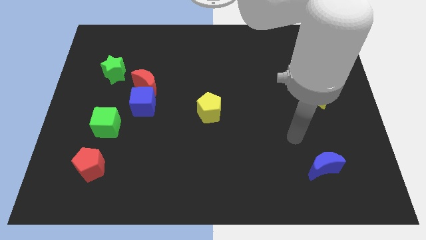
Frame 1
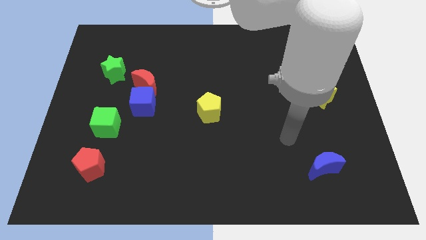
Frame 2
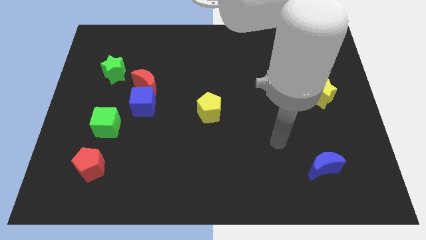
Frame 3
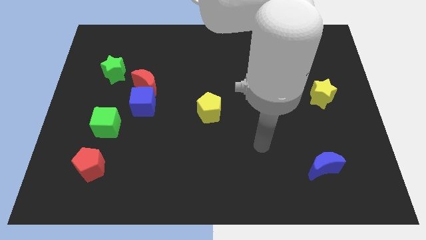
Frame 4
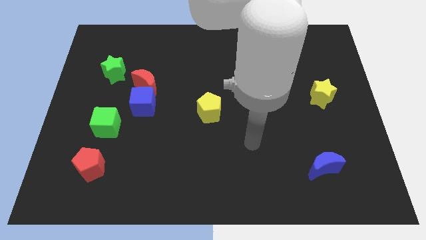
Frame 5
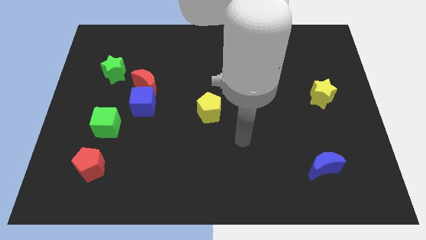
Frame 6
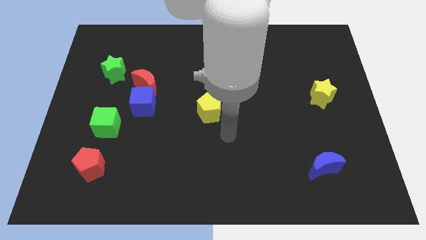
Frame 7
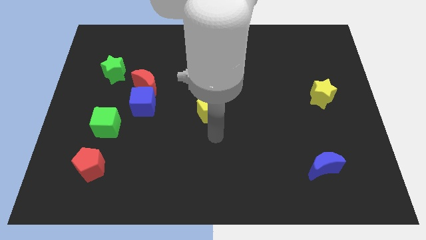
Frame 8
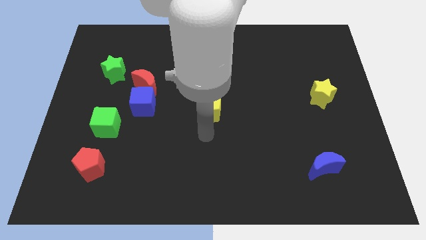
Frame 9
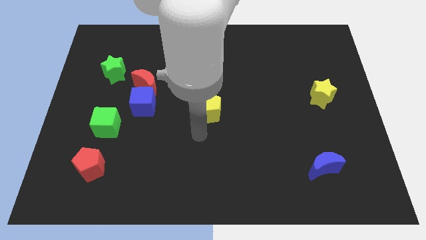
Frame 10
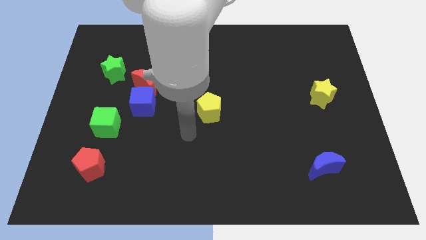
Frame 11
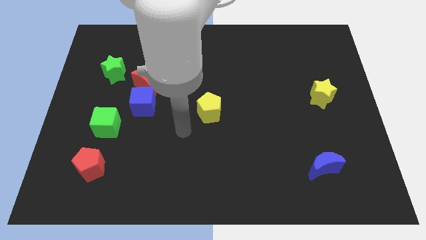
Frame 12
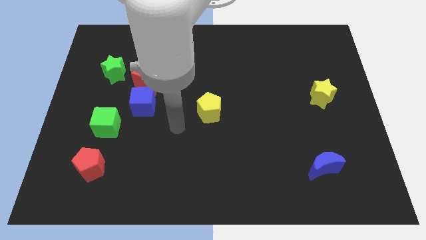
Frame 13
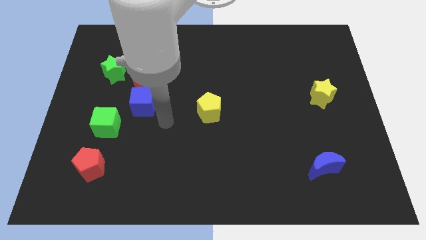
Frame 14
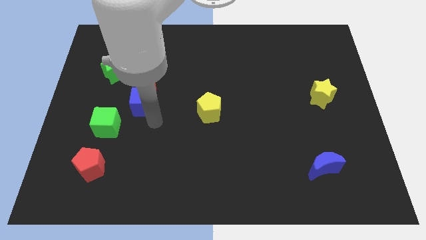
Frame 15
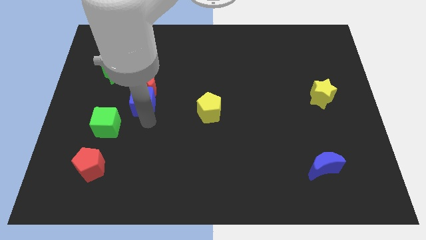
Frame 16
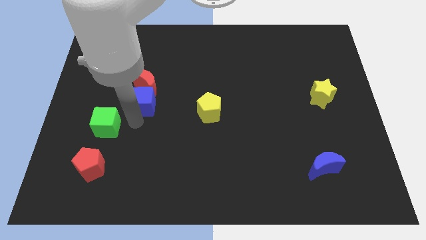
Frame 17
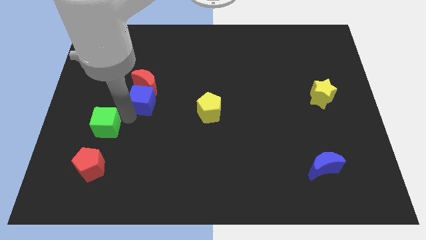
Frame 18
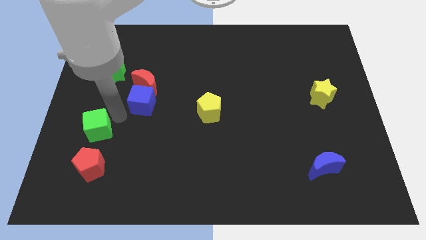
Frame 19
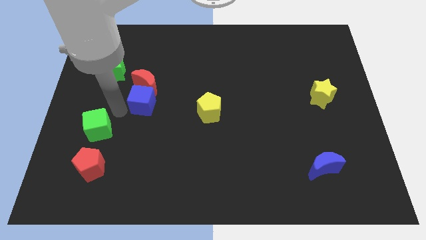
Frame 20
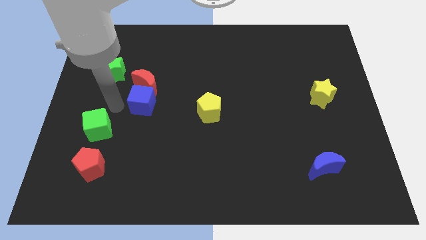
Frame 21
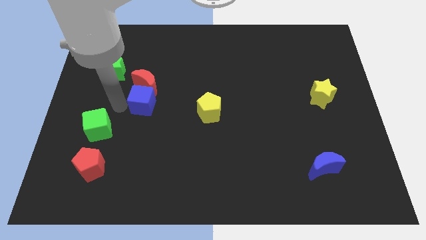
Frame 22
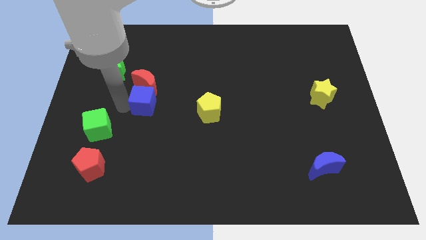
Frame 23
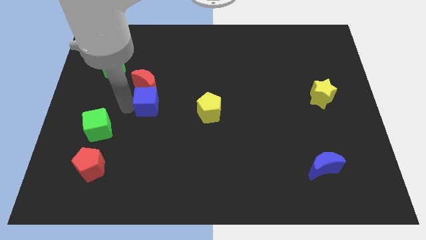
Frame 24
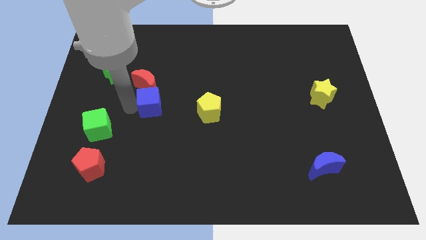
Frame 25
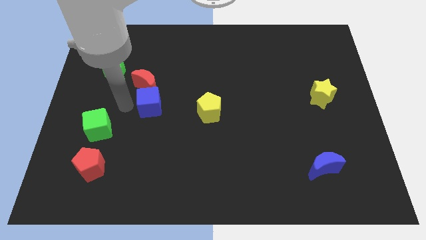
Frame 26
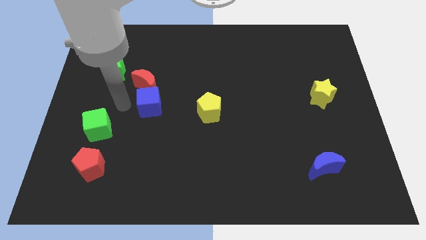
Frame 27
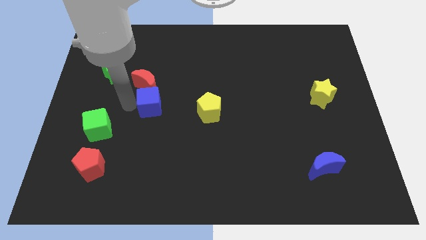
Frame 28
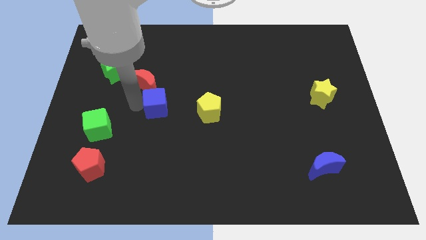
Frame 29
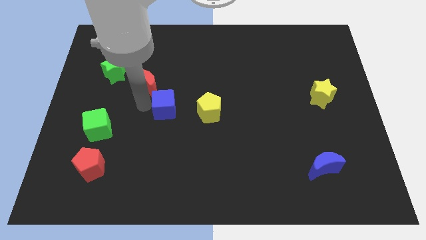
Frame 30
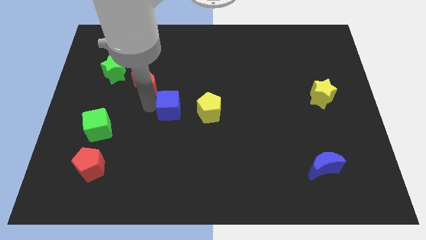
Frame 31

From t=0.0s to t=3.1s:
move the blue cube away from the red moon and green cube

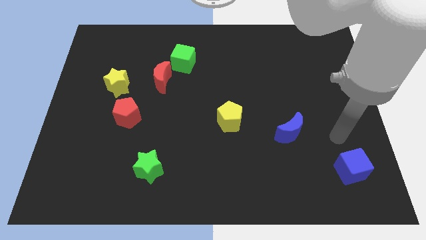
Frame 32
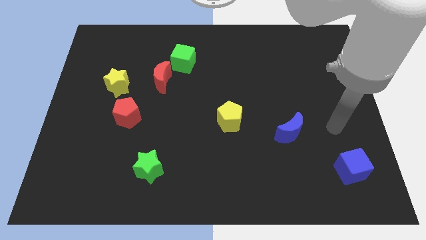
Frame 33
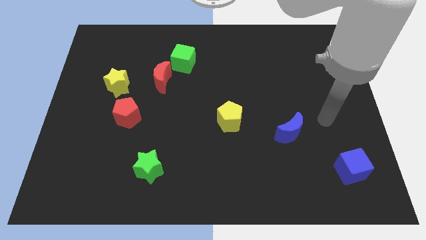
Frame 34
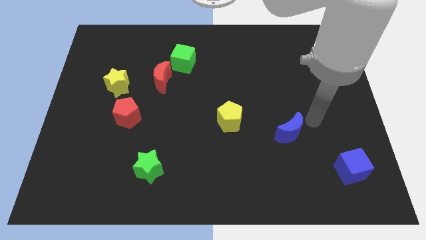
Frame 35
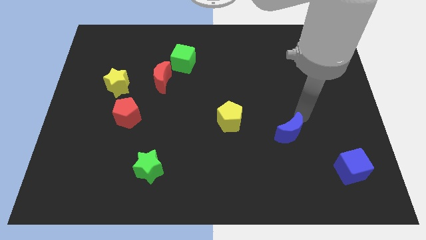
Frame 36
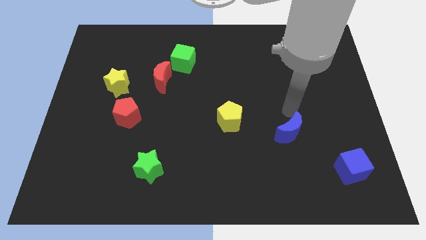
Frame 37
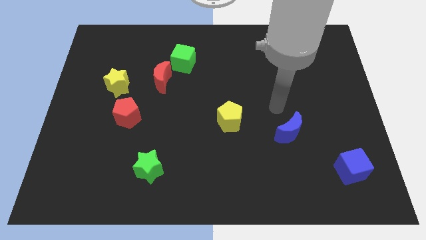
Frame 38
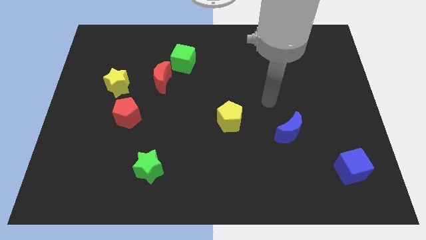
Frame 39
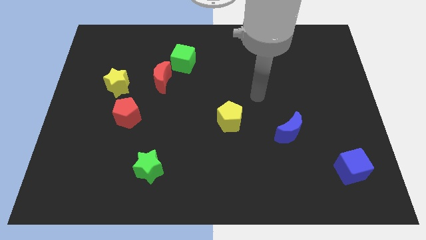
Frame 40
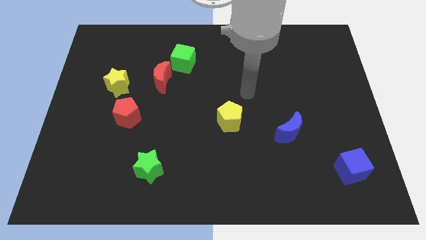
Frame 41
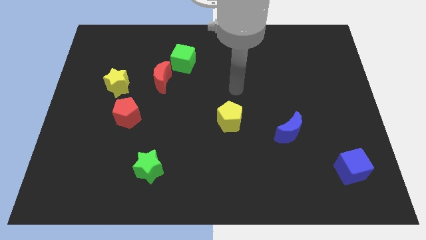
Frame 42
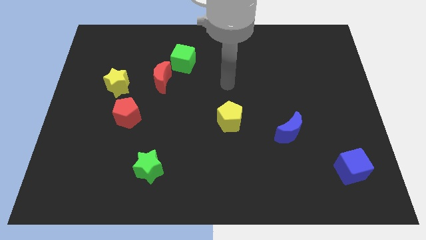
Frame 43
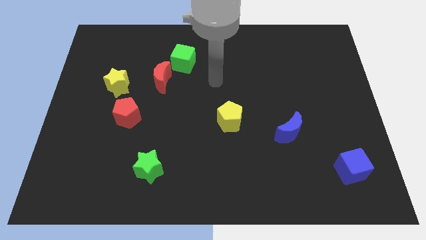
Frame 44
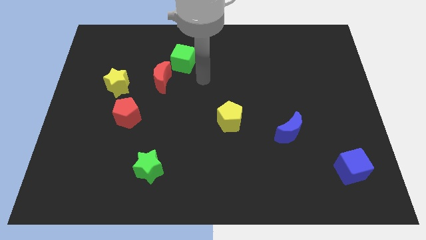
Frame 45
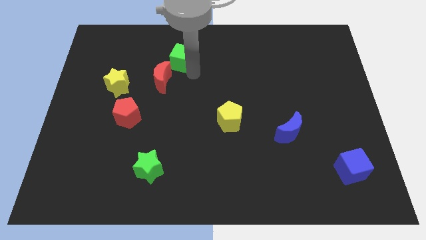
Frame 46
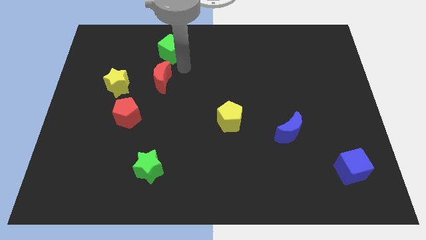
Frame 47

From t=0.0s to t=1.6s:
separate the red moon from the green cube

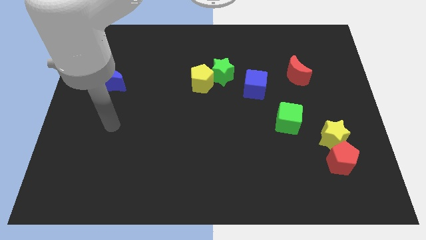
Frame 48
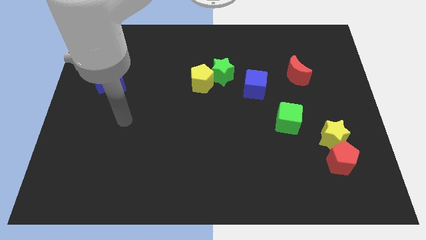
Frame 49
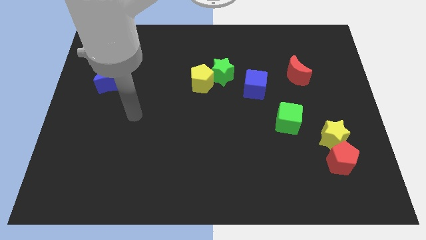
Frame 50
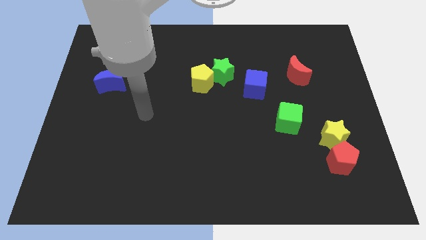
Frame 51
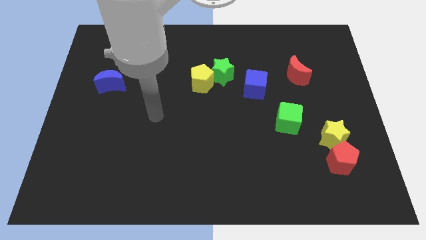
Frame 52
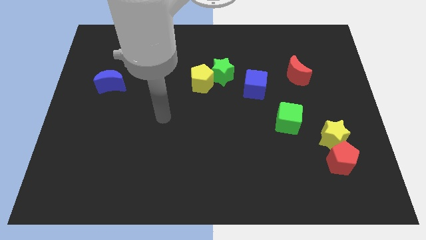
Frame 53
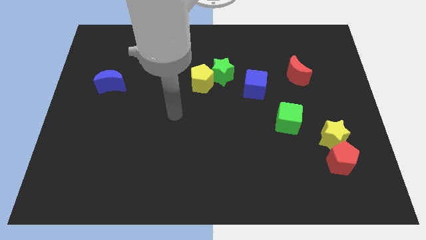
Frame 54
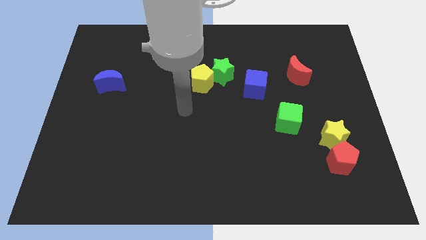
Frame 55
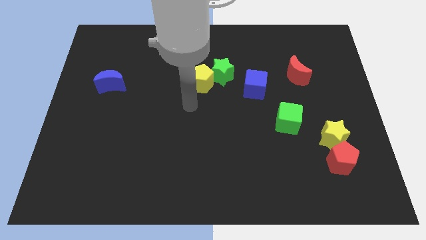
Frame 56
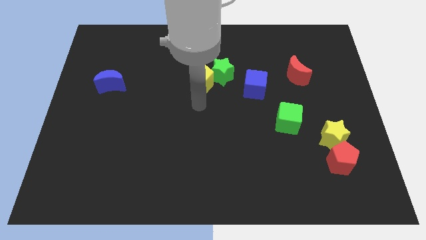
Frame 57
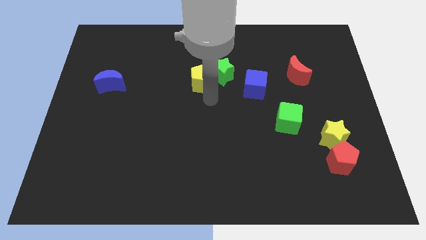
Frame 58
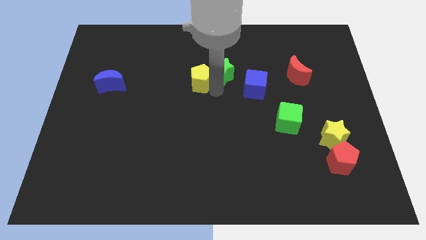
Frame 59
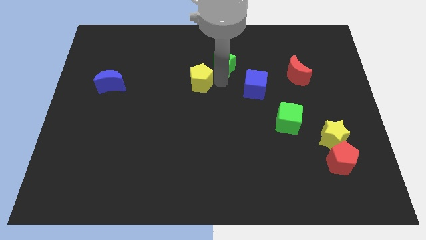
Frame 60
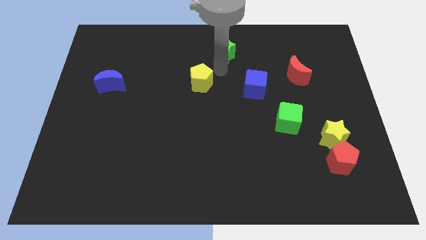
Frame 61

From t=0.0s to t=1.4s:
move the yellow pentagon away from the green star

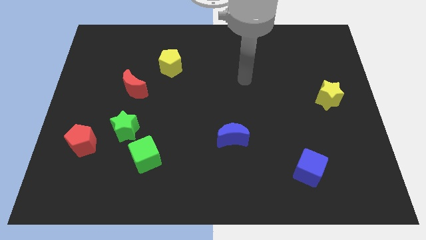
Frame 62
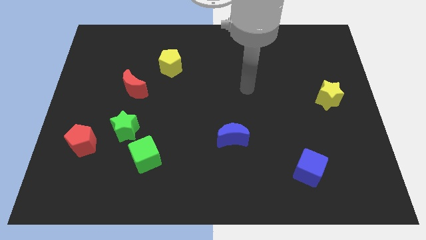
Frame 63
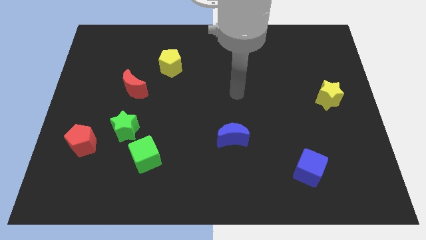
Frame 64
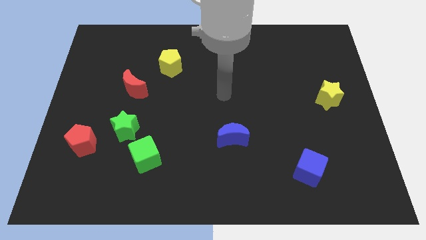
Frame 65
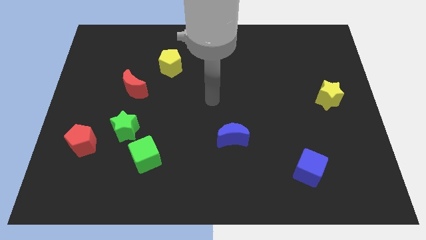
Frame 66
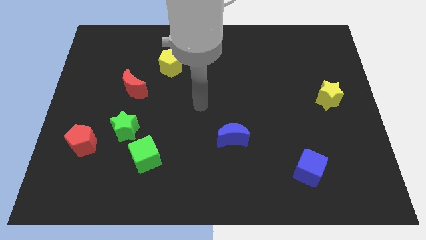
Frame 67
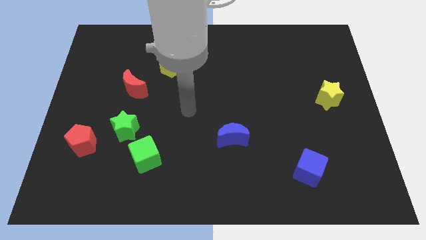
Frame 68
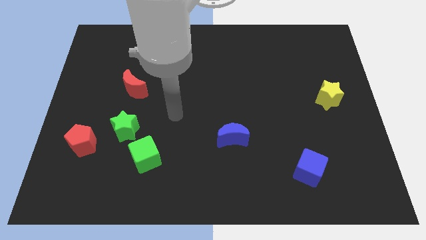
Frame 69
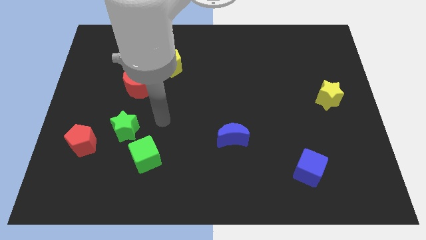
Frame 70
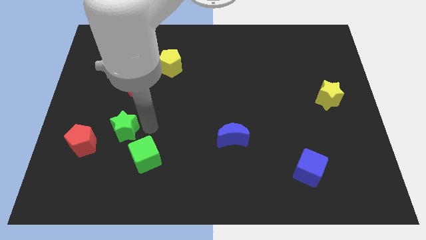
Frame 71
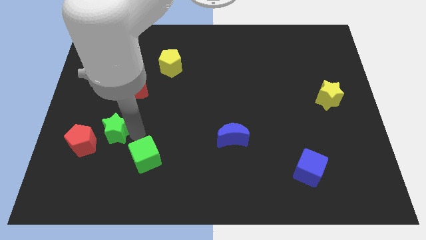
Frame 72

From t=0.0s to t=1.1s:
pull the green cube apart from the green star

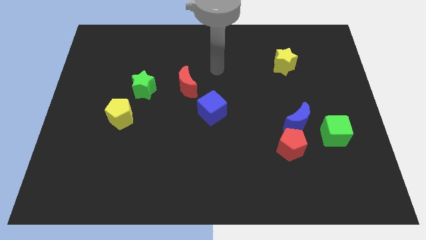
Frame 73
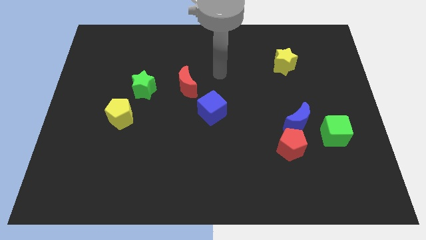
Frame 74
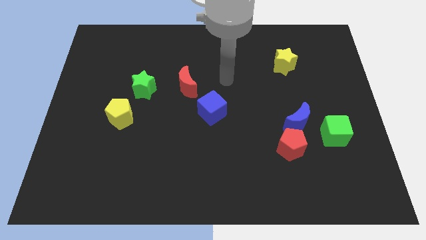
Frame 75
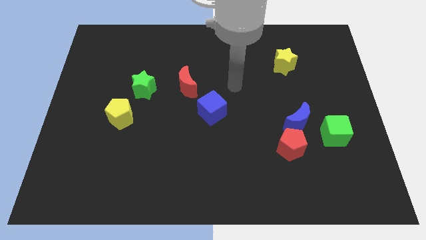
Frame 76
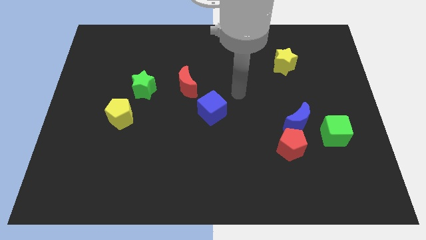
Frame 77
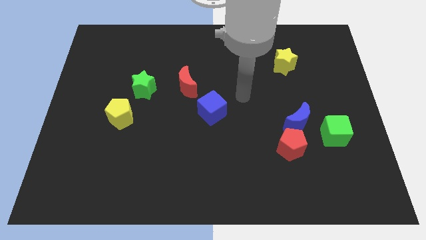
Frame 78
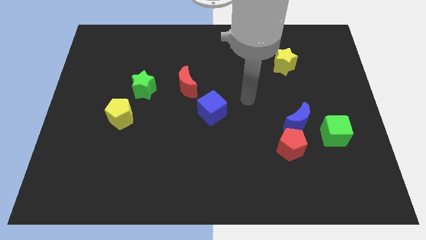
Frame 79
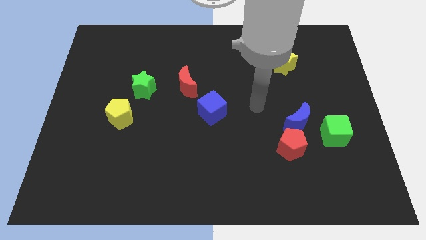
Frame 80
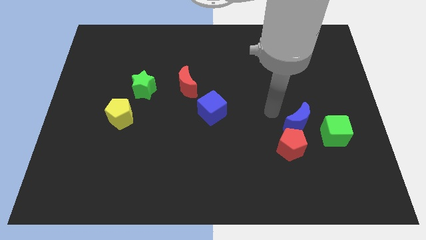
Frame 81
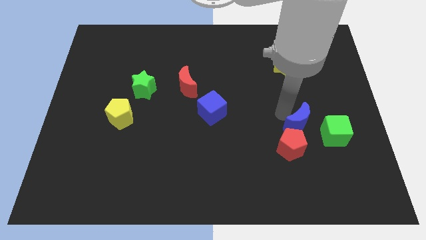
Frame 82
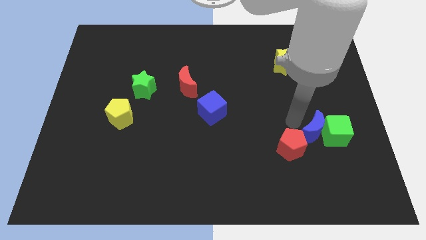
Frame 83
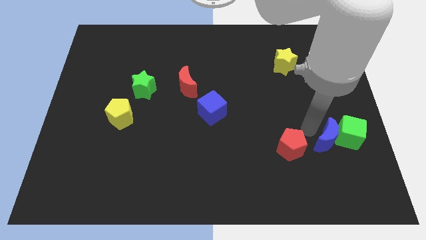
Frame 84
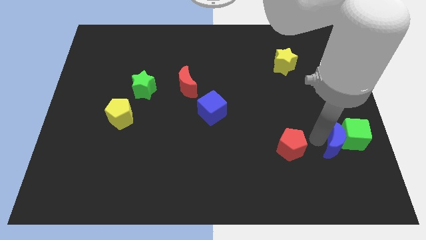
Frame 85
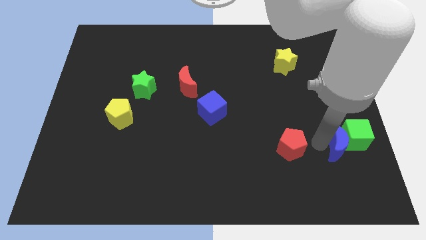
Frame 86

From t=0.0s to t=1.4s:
separate the red pentagon from the blue moon

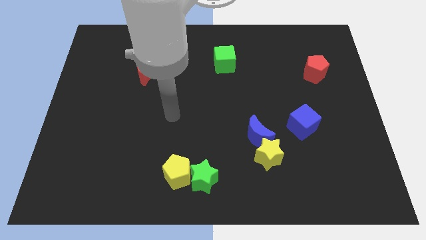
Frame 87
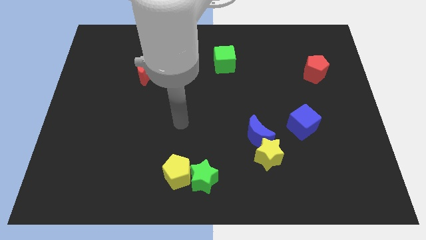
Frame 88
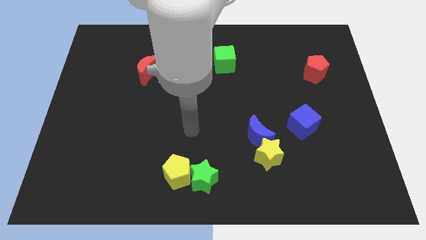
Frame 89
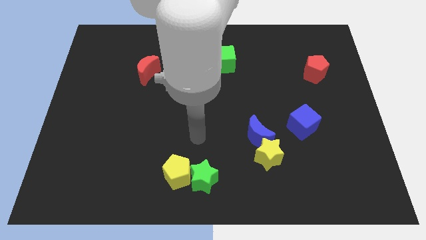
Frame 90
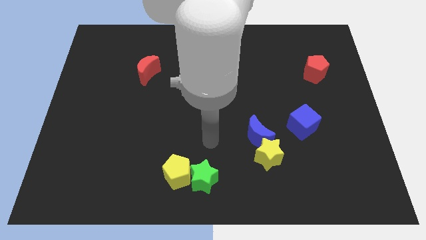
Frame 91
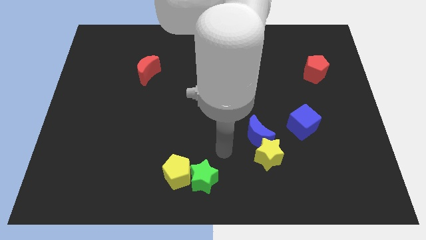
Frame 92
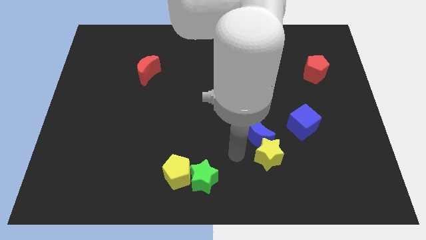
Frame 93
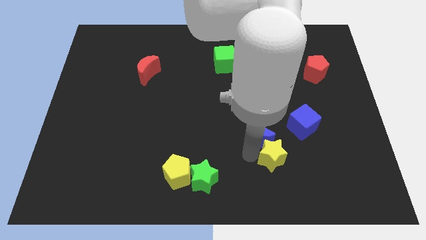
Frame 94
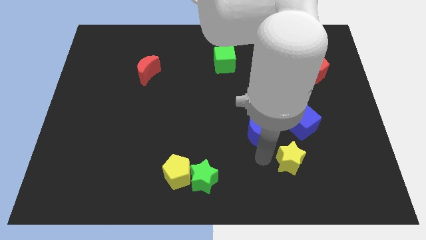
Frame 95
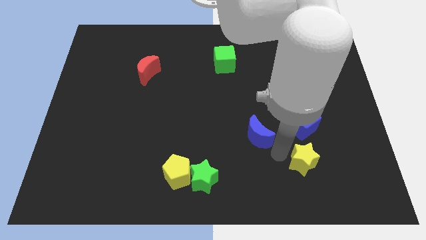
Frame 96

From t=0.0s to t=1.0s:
pull the blue moon apart from the yellow star
